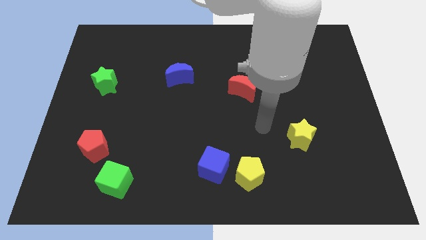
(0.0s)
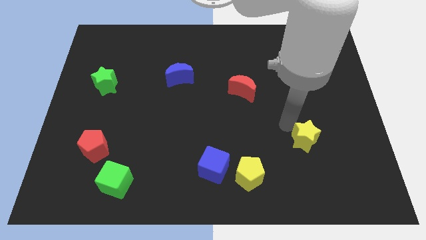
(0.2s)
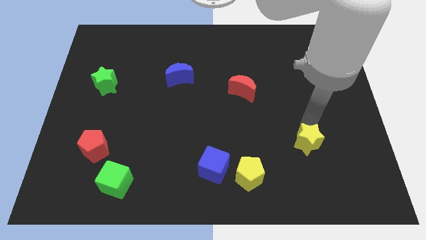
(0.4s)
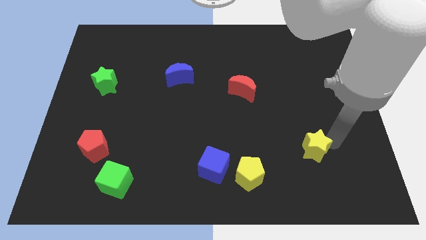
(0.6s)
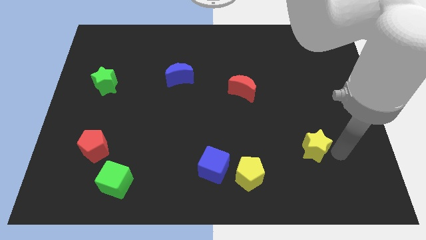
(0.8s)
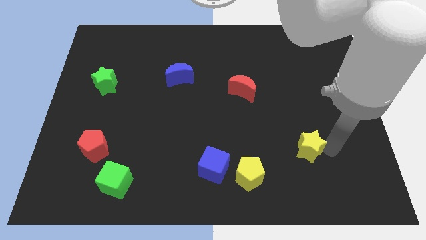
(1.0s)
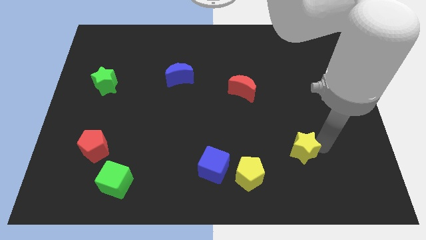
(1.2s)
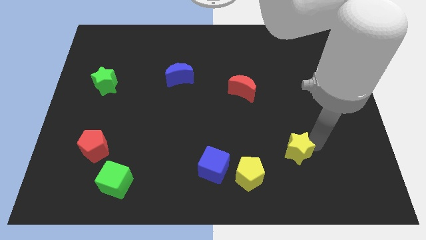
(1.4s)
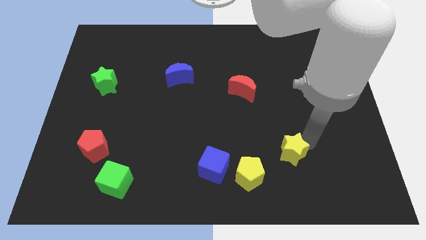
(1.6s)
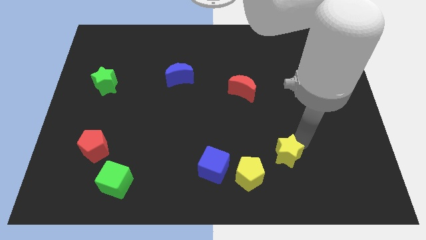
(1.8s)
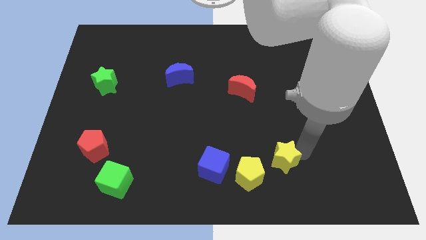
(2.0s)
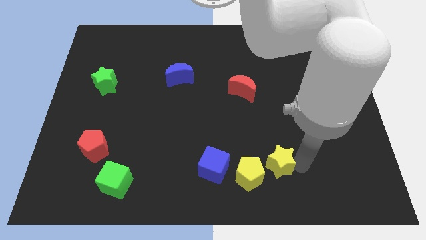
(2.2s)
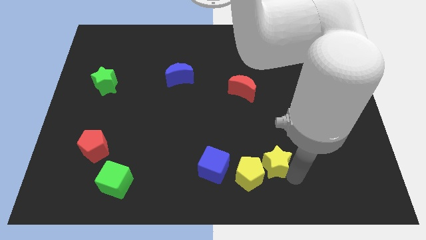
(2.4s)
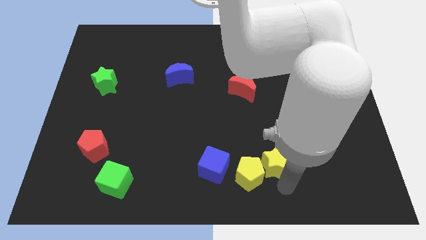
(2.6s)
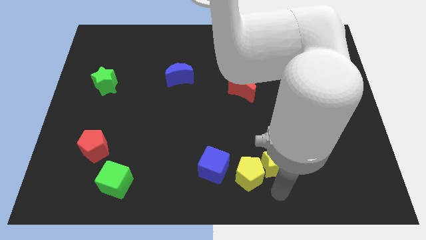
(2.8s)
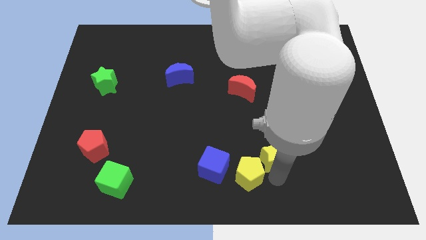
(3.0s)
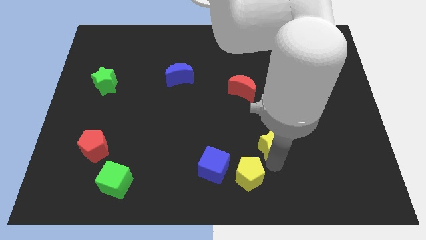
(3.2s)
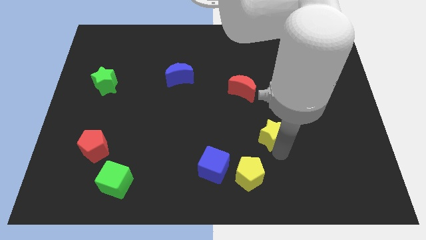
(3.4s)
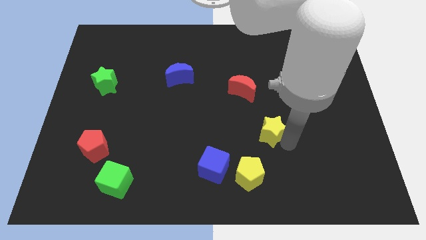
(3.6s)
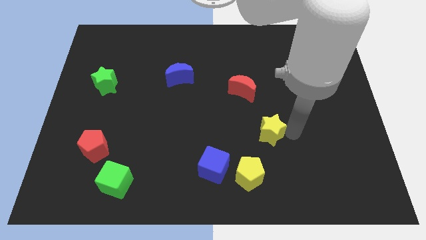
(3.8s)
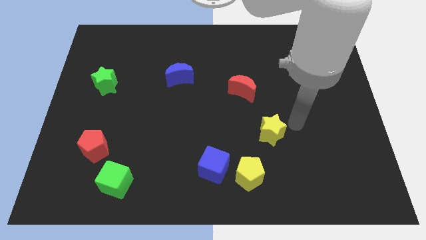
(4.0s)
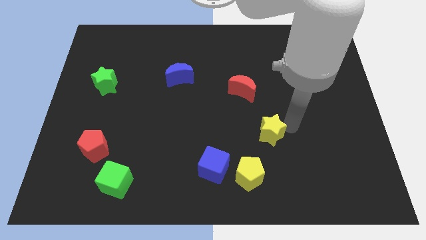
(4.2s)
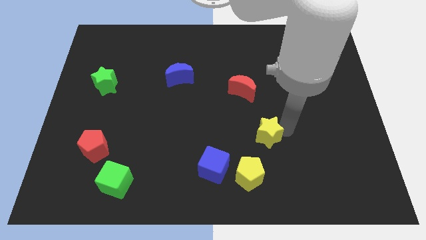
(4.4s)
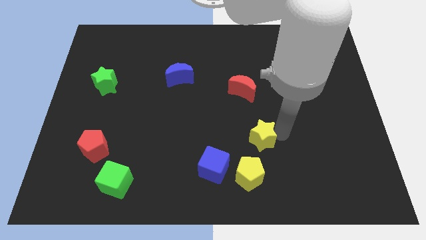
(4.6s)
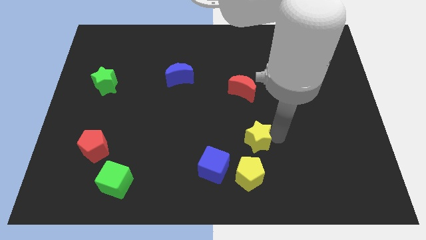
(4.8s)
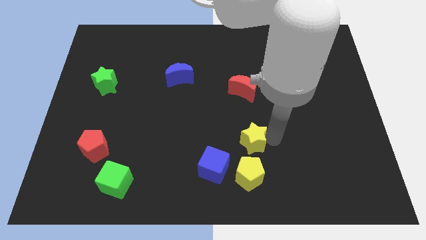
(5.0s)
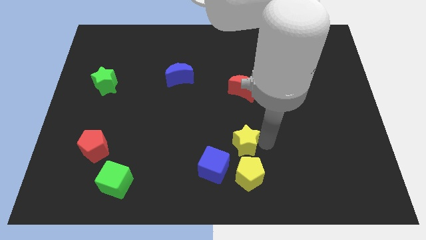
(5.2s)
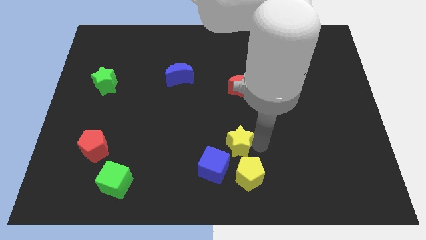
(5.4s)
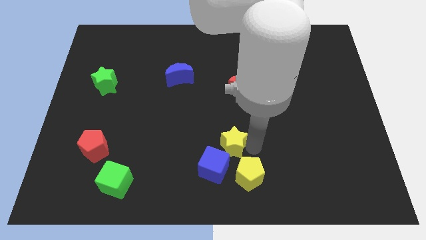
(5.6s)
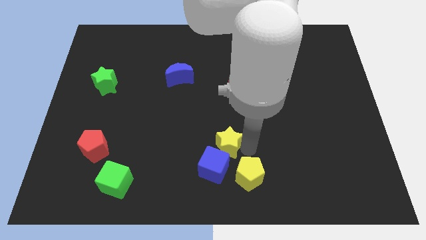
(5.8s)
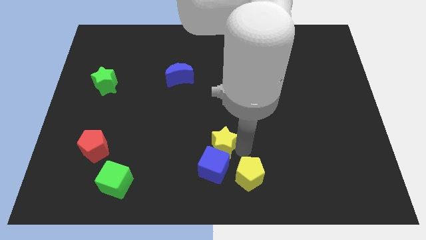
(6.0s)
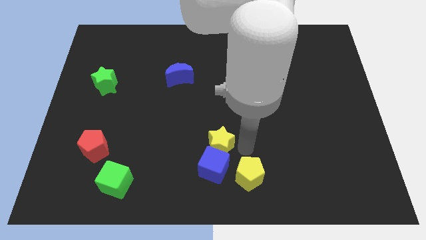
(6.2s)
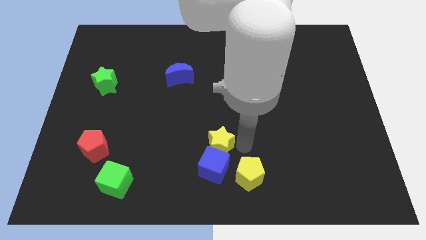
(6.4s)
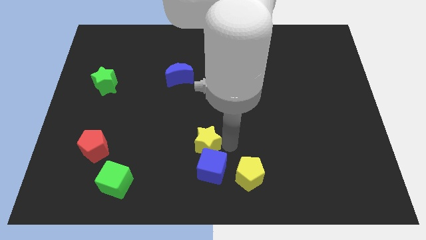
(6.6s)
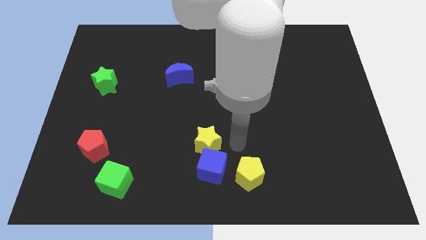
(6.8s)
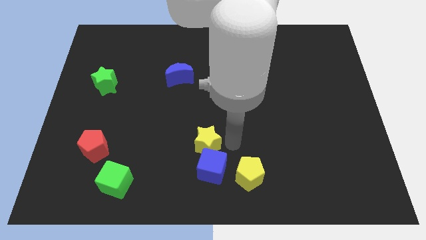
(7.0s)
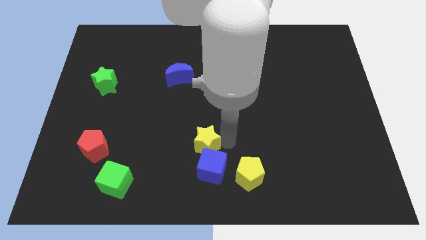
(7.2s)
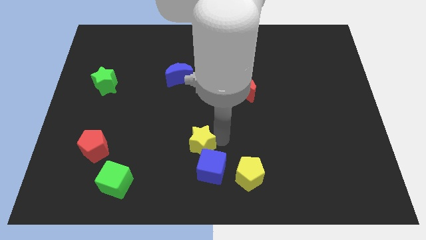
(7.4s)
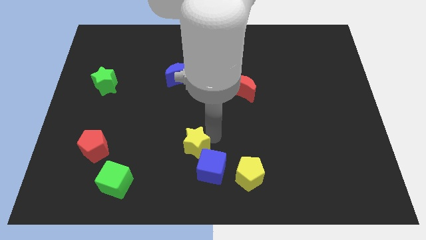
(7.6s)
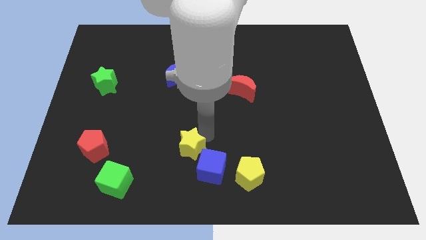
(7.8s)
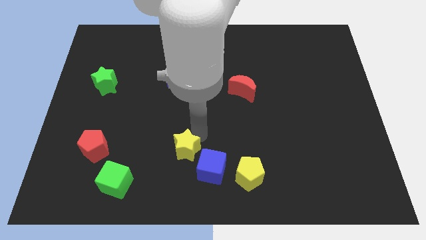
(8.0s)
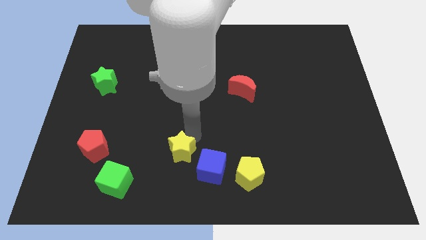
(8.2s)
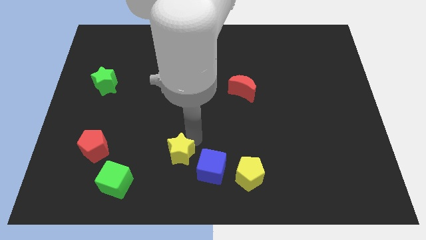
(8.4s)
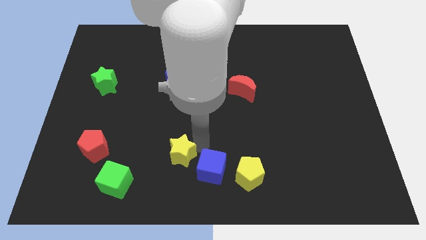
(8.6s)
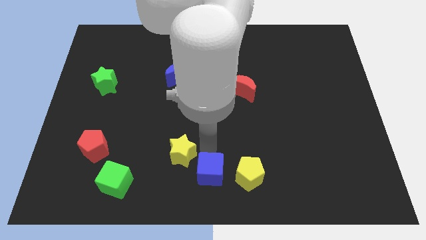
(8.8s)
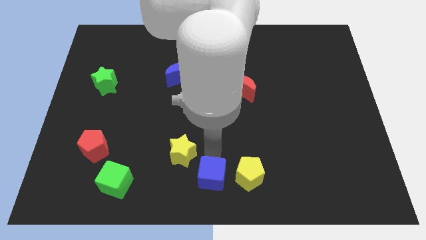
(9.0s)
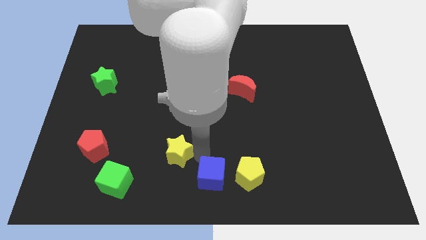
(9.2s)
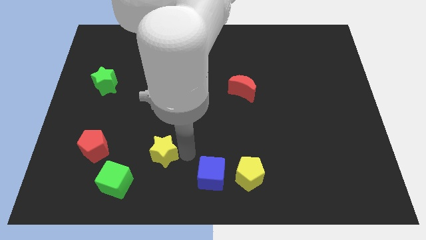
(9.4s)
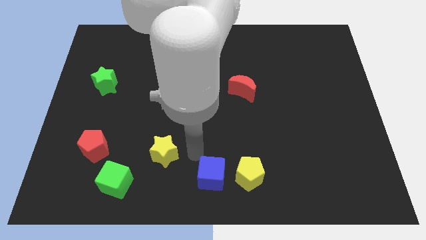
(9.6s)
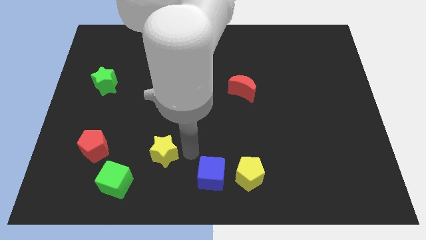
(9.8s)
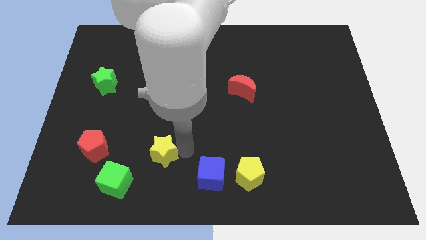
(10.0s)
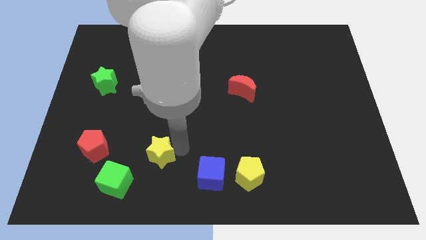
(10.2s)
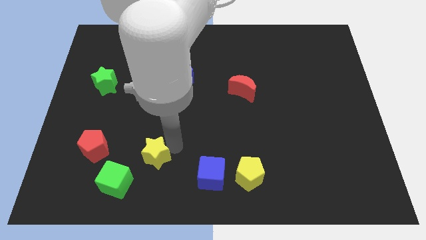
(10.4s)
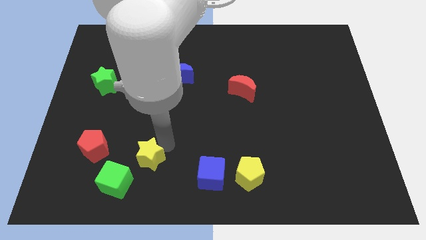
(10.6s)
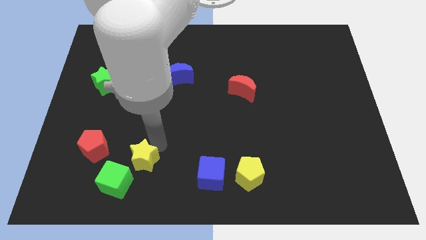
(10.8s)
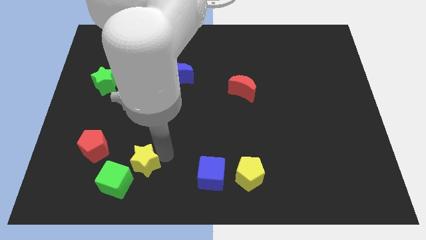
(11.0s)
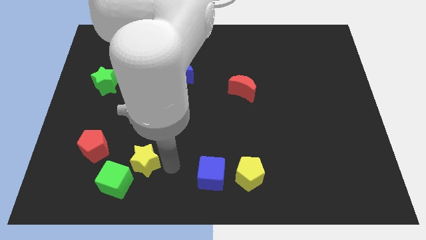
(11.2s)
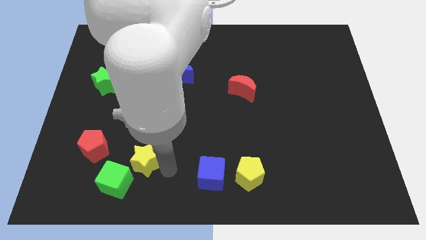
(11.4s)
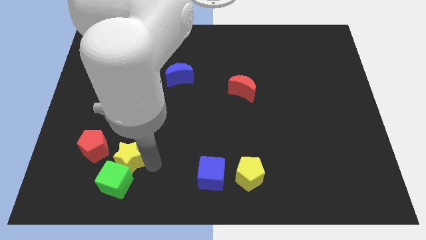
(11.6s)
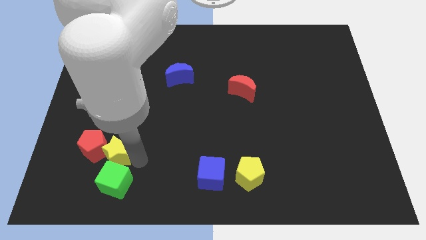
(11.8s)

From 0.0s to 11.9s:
move the yellow star next to the red pentagon

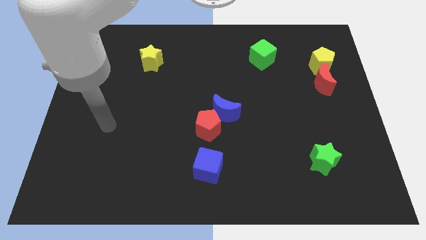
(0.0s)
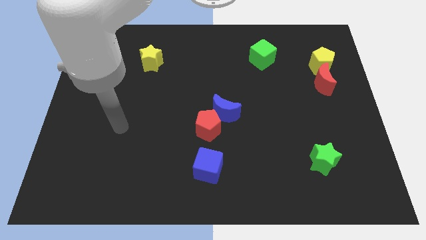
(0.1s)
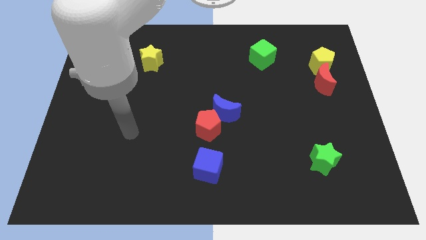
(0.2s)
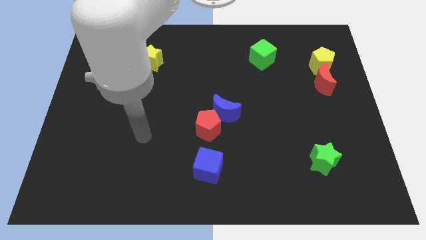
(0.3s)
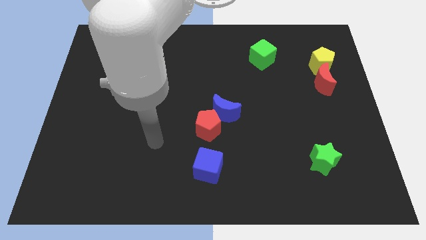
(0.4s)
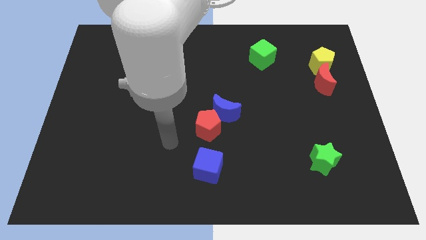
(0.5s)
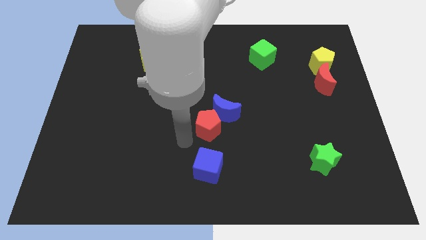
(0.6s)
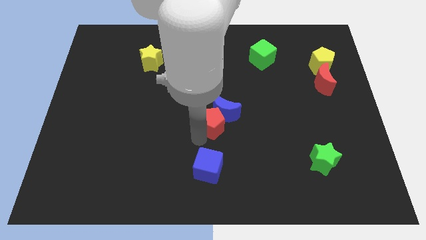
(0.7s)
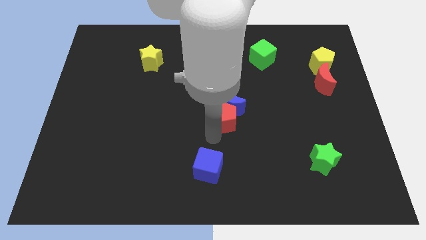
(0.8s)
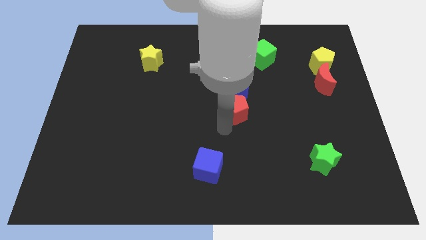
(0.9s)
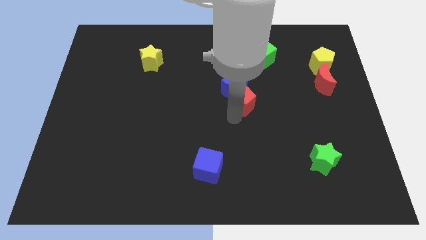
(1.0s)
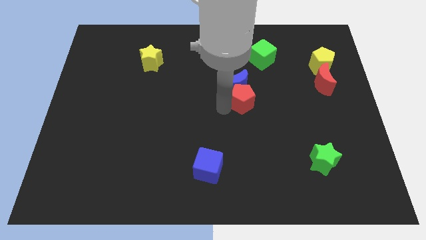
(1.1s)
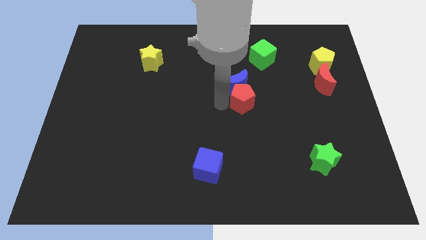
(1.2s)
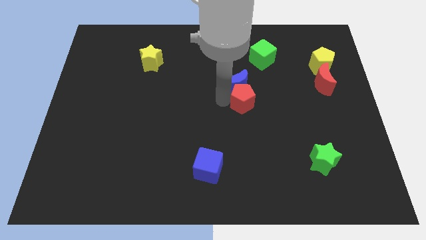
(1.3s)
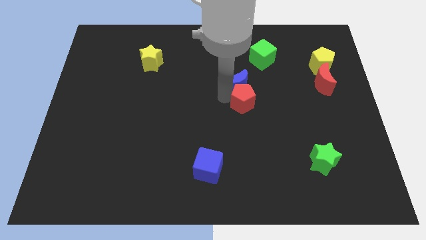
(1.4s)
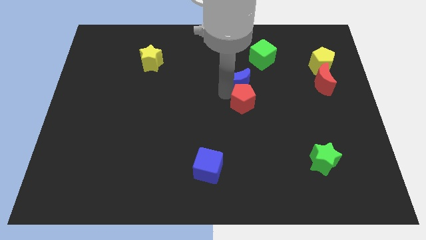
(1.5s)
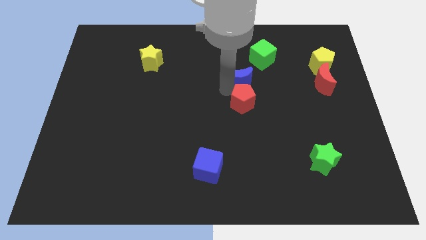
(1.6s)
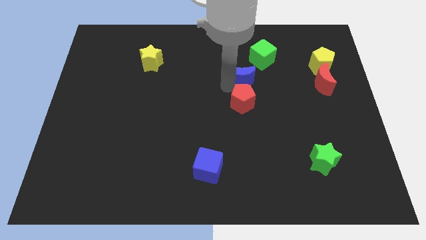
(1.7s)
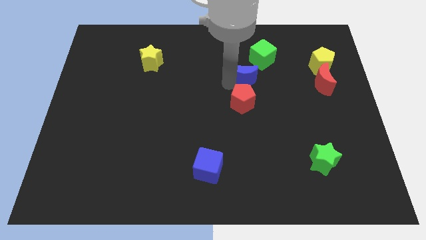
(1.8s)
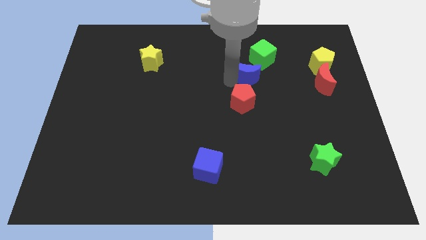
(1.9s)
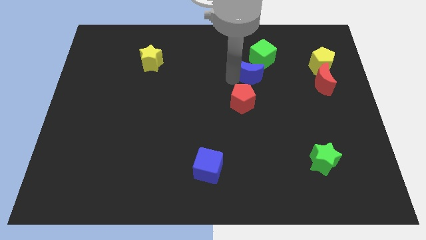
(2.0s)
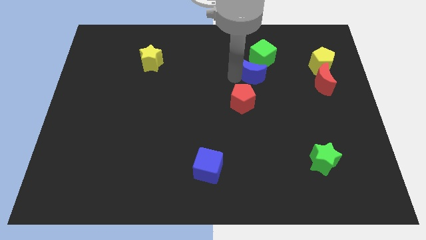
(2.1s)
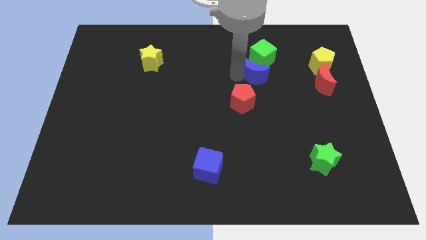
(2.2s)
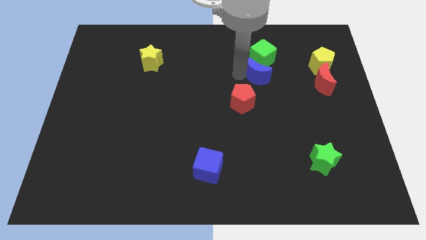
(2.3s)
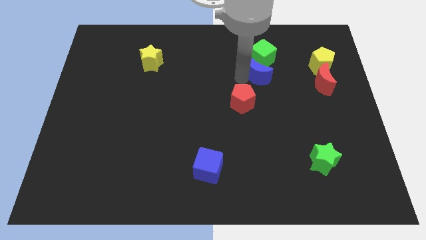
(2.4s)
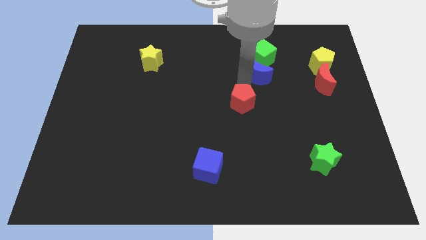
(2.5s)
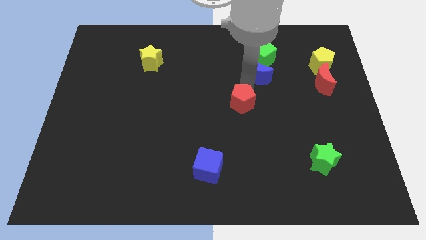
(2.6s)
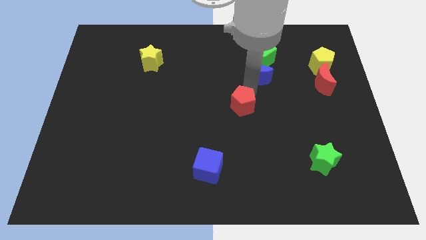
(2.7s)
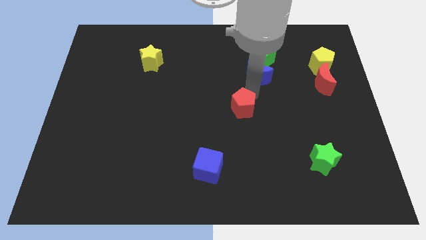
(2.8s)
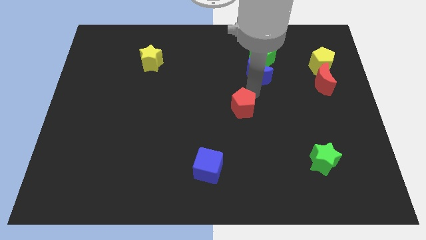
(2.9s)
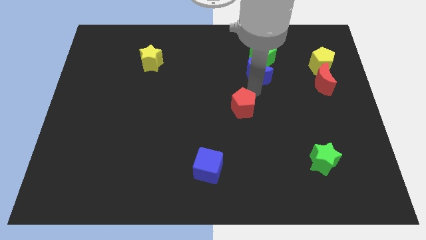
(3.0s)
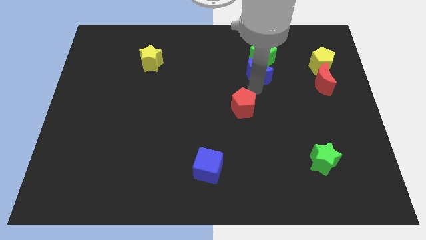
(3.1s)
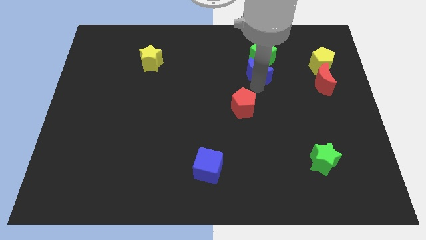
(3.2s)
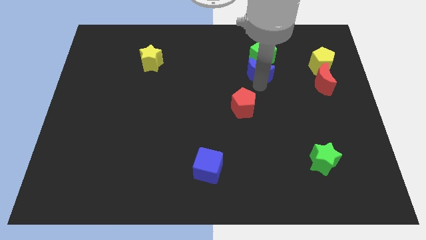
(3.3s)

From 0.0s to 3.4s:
push the blue moon to the green cube
